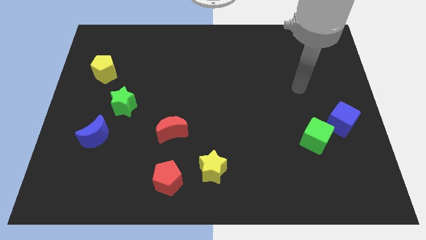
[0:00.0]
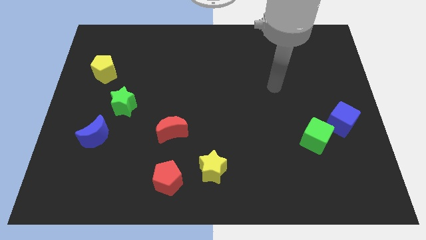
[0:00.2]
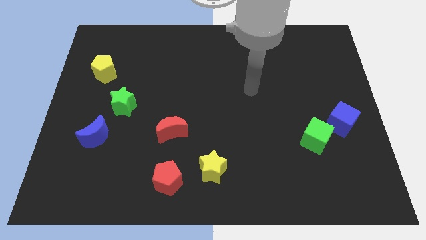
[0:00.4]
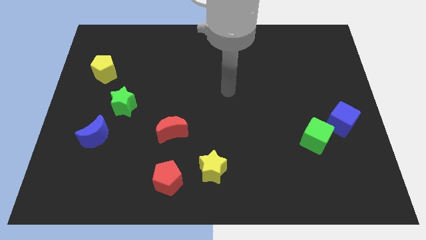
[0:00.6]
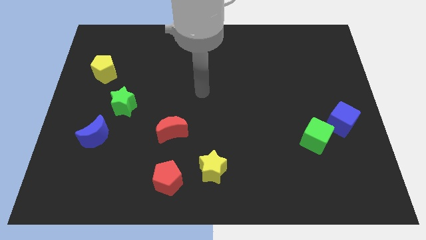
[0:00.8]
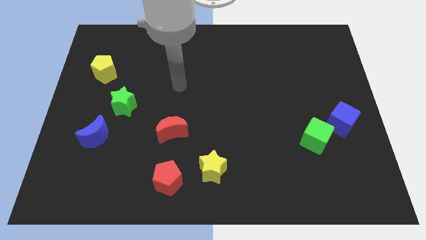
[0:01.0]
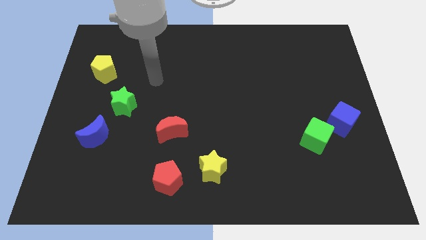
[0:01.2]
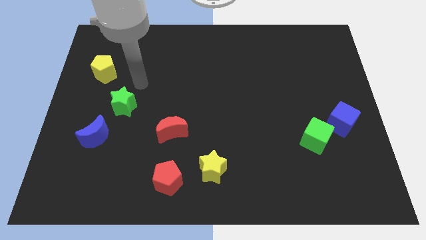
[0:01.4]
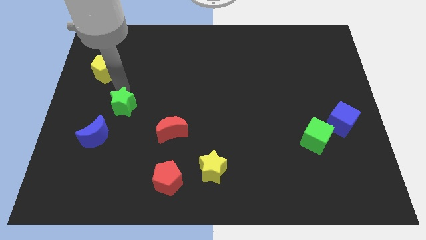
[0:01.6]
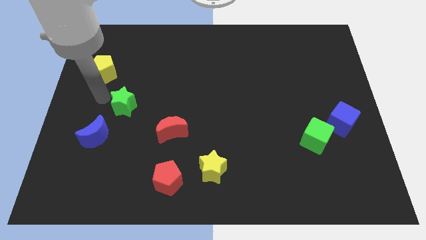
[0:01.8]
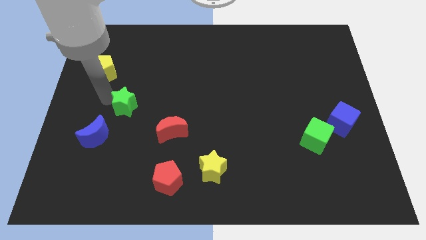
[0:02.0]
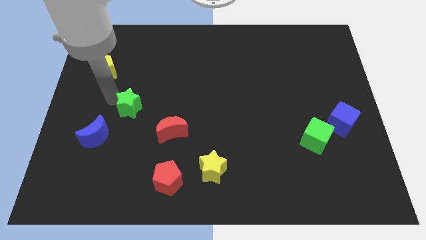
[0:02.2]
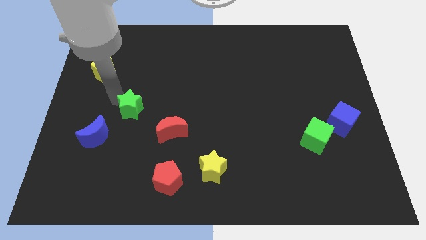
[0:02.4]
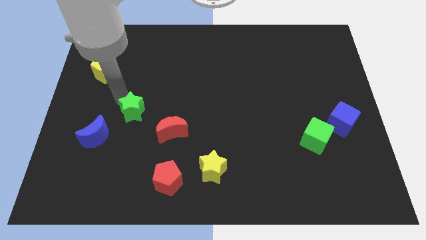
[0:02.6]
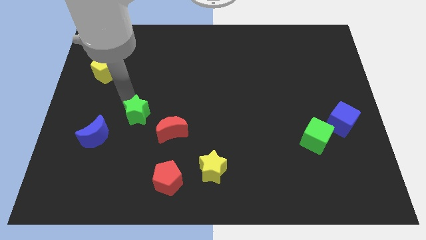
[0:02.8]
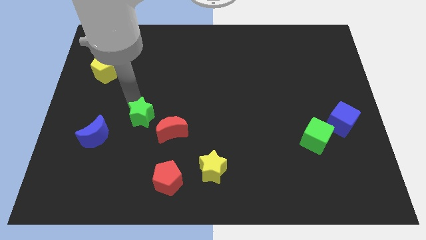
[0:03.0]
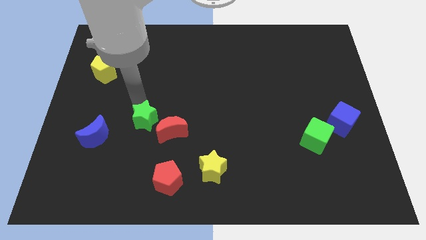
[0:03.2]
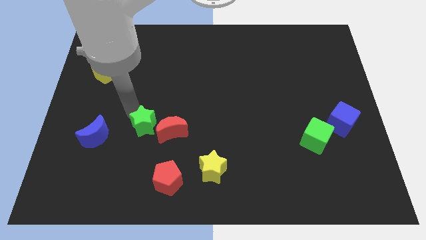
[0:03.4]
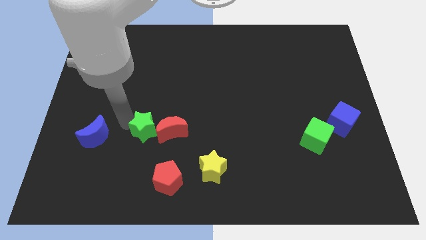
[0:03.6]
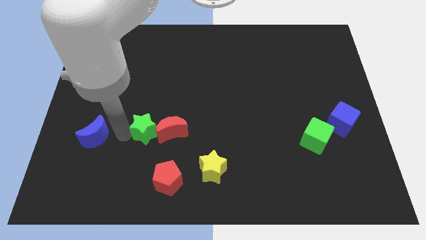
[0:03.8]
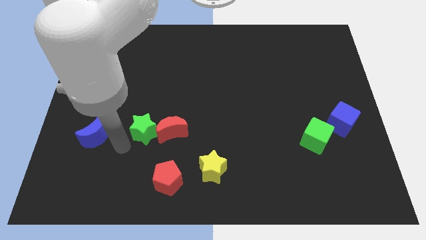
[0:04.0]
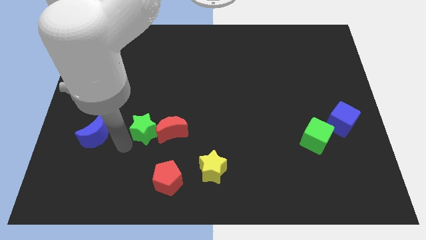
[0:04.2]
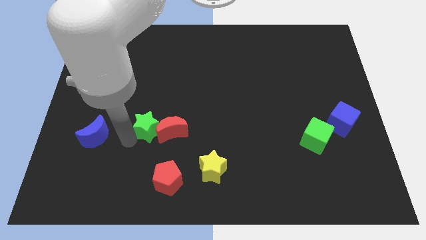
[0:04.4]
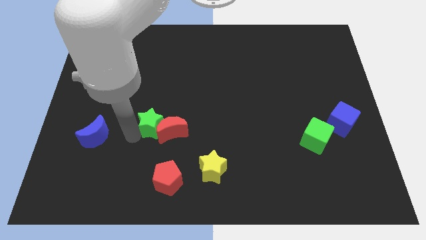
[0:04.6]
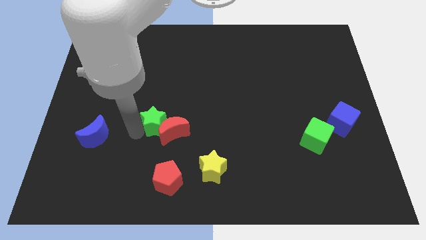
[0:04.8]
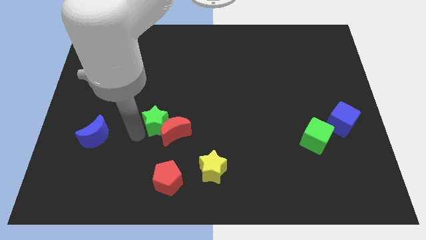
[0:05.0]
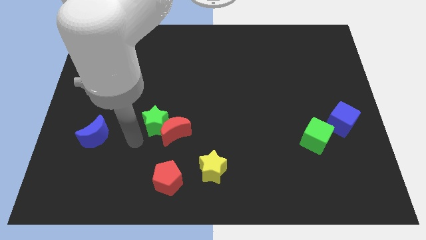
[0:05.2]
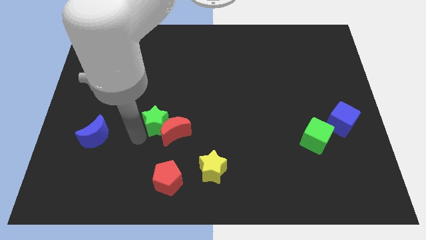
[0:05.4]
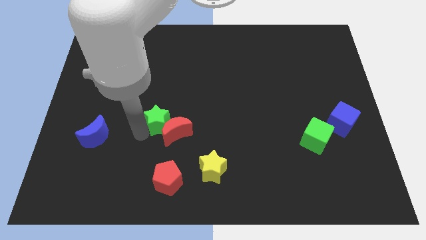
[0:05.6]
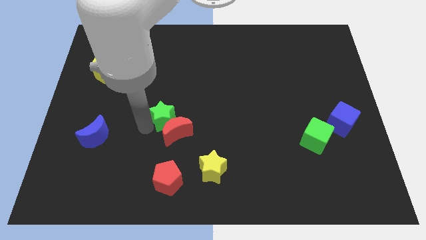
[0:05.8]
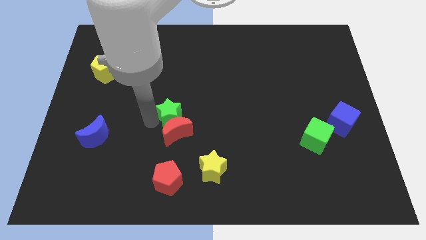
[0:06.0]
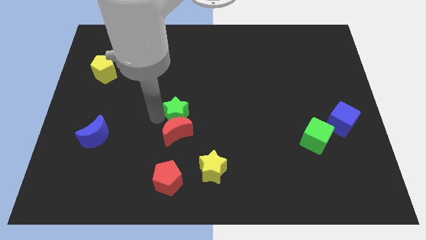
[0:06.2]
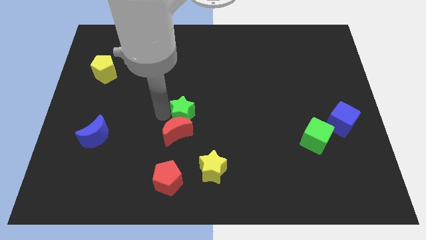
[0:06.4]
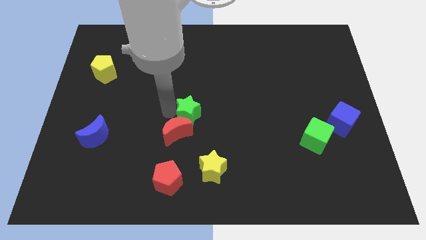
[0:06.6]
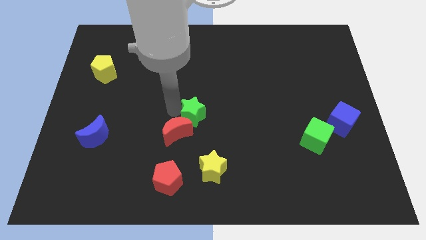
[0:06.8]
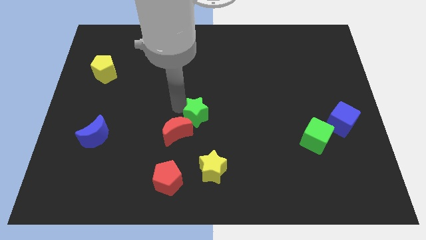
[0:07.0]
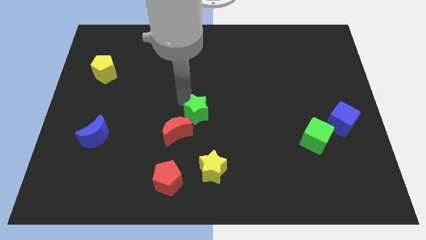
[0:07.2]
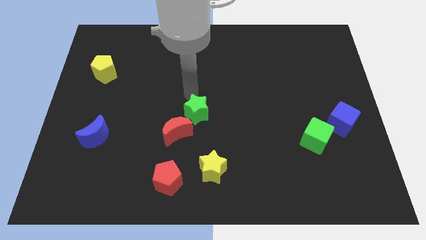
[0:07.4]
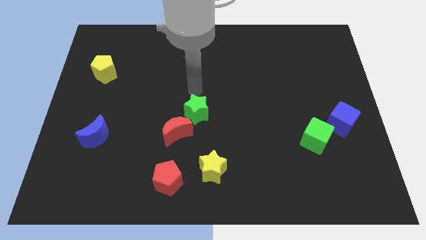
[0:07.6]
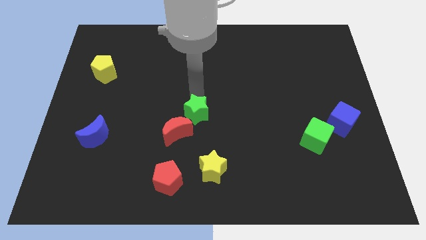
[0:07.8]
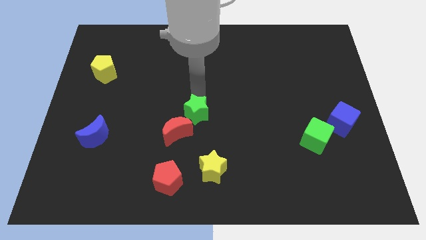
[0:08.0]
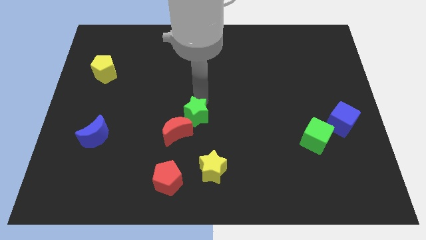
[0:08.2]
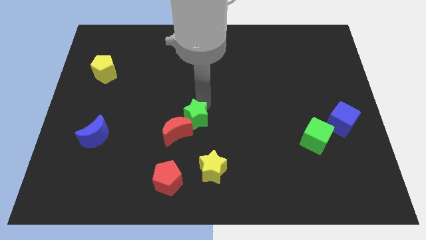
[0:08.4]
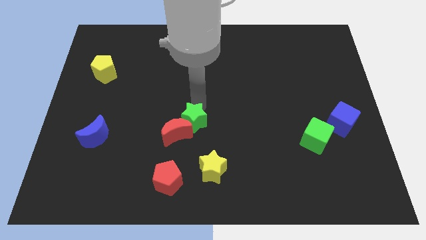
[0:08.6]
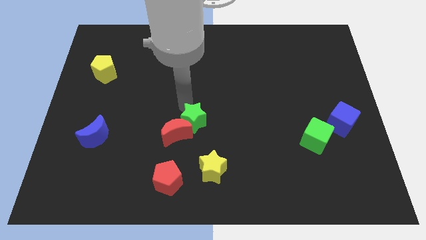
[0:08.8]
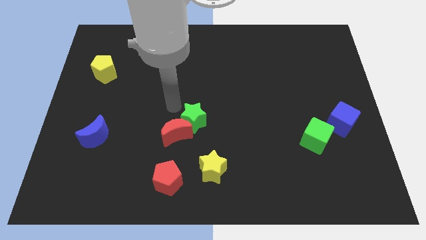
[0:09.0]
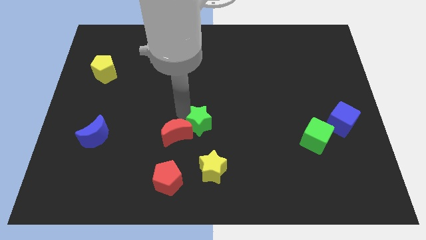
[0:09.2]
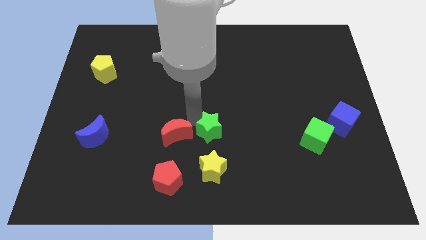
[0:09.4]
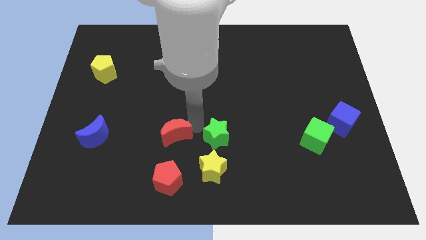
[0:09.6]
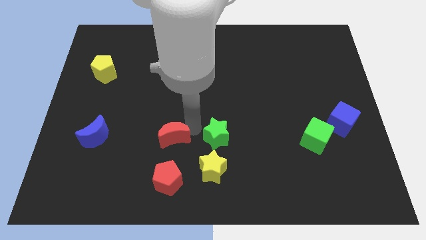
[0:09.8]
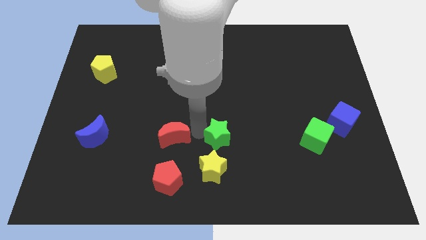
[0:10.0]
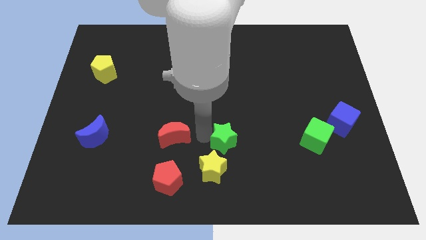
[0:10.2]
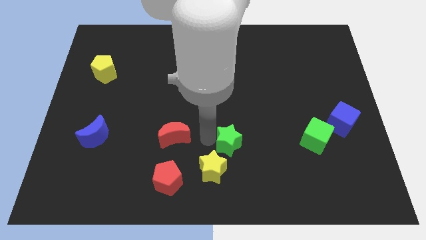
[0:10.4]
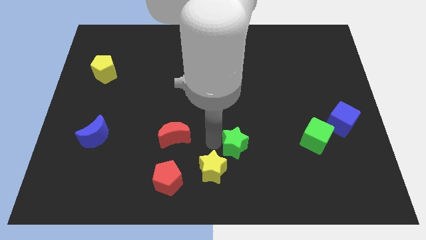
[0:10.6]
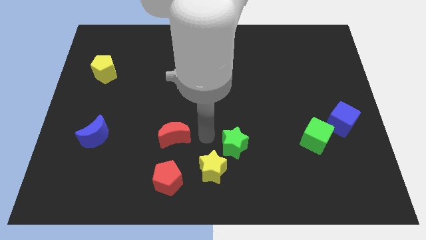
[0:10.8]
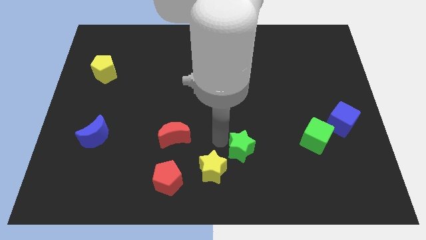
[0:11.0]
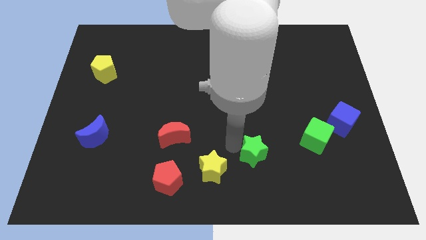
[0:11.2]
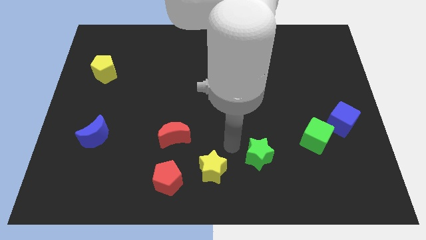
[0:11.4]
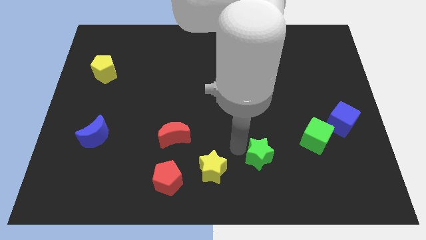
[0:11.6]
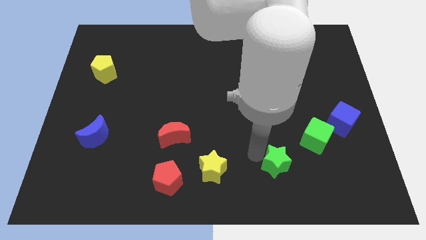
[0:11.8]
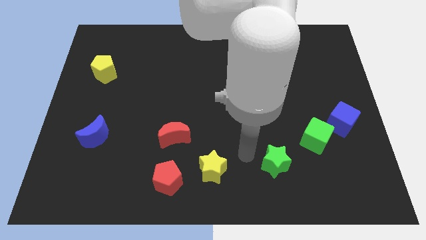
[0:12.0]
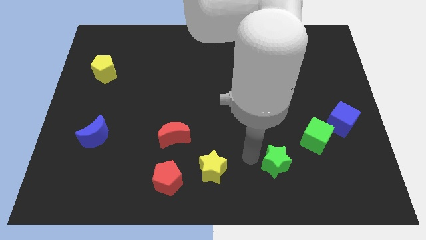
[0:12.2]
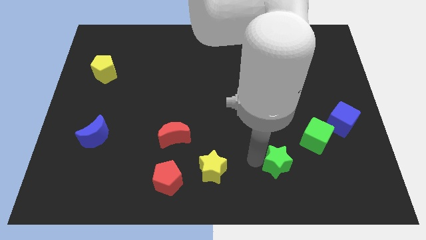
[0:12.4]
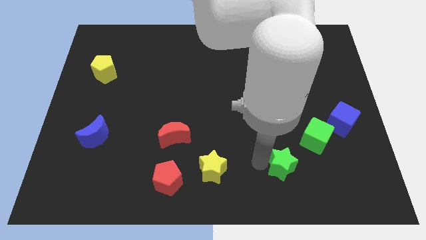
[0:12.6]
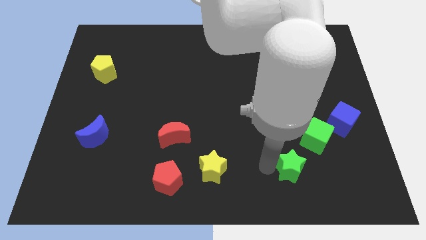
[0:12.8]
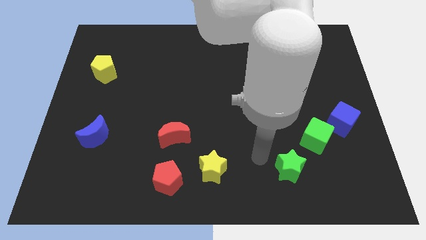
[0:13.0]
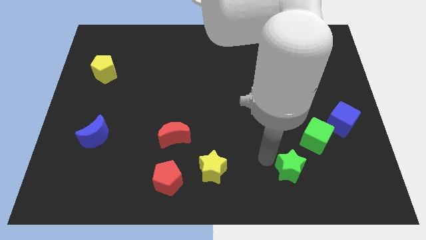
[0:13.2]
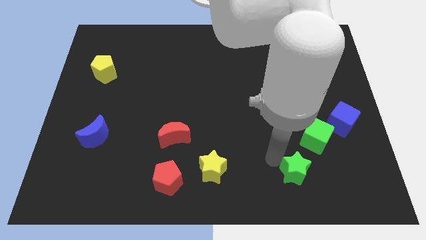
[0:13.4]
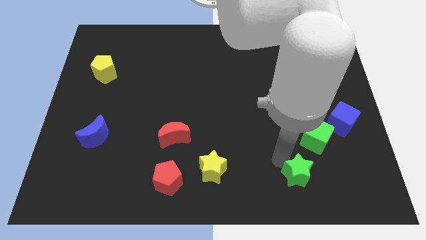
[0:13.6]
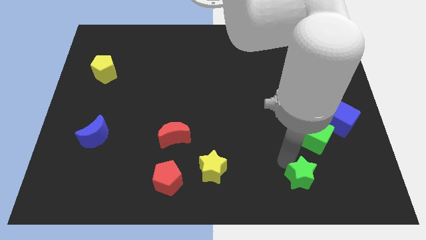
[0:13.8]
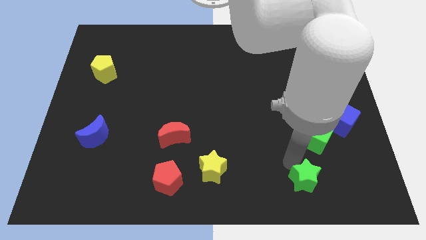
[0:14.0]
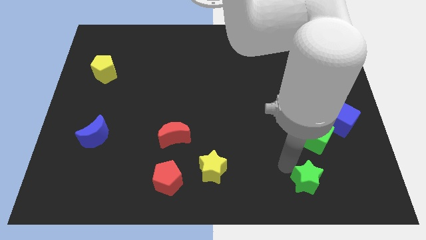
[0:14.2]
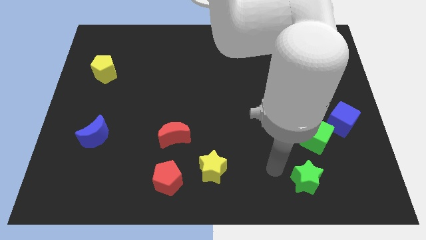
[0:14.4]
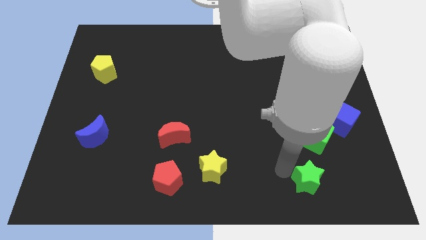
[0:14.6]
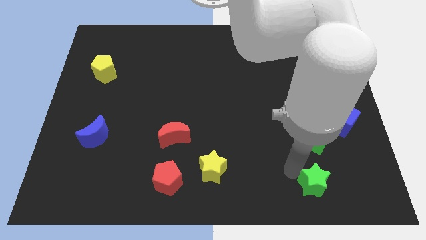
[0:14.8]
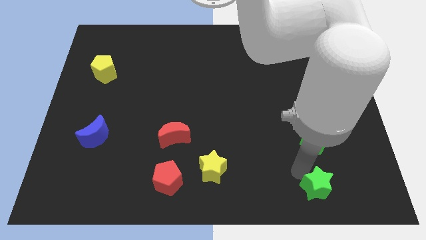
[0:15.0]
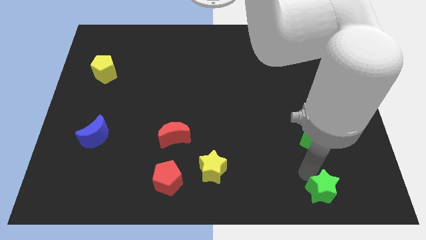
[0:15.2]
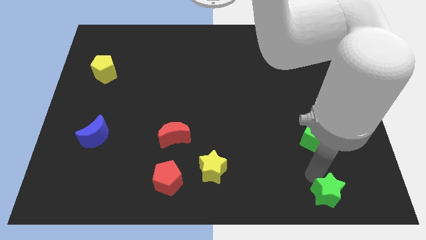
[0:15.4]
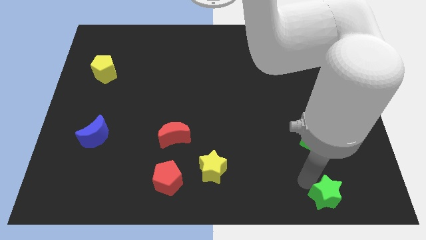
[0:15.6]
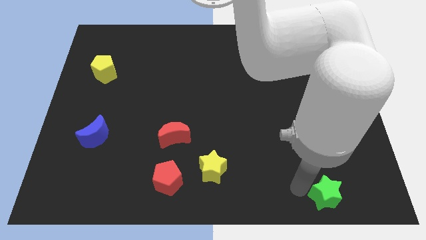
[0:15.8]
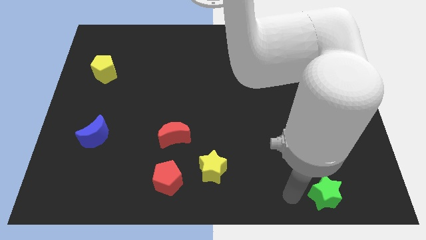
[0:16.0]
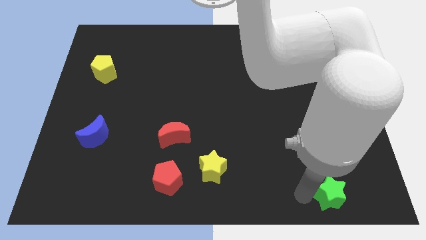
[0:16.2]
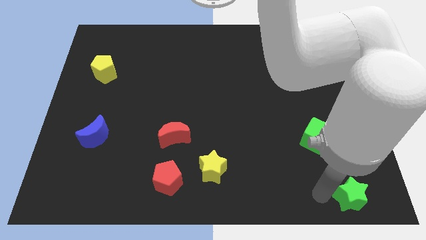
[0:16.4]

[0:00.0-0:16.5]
move the green star to the lower right corner
